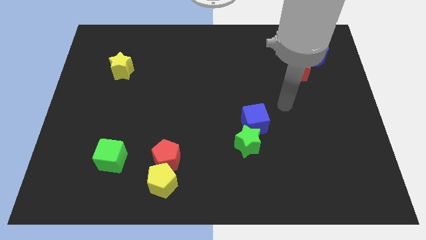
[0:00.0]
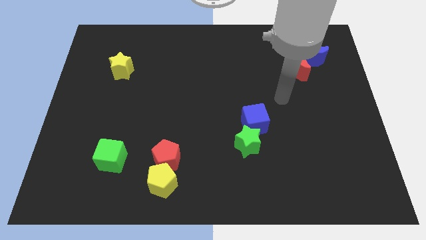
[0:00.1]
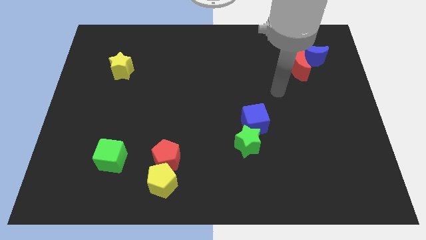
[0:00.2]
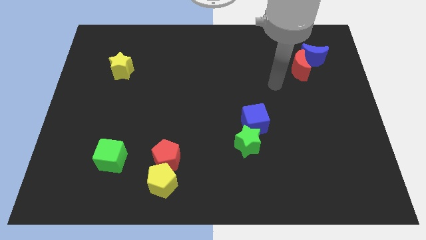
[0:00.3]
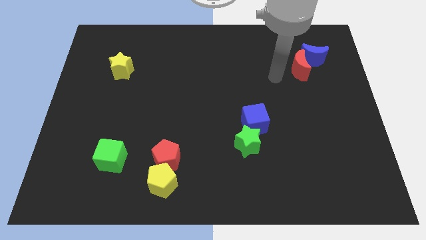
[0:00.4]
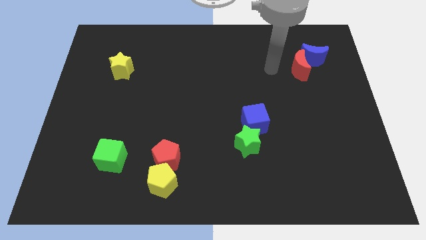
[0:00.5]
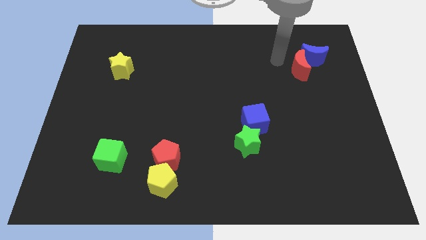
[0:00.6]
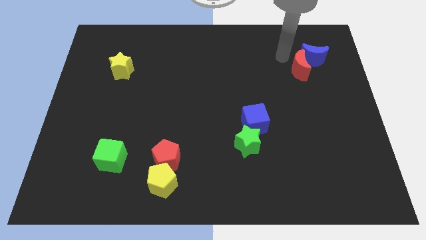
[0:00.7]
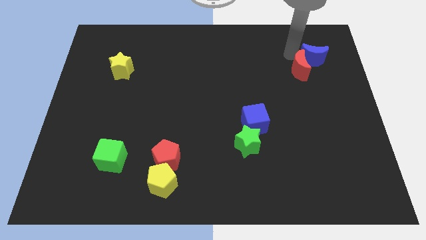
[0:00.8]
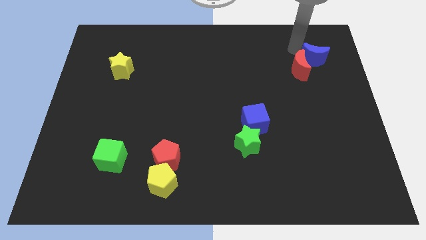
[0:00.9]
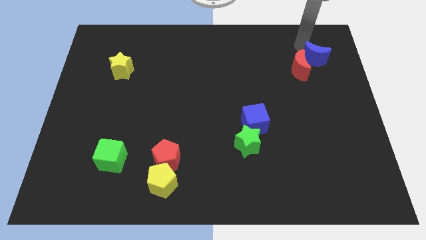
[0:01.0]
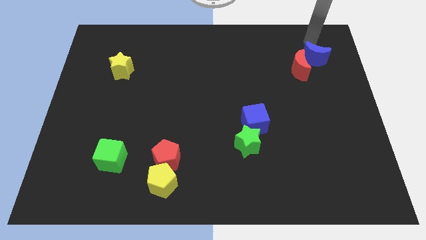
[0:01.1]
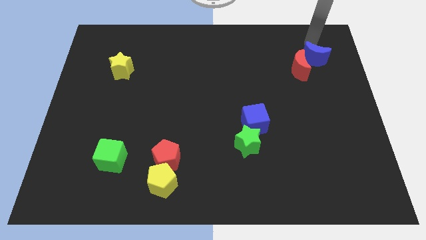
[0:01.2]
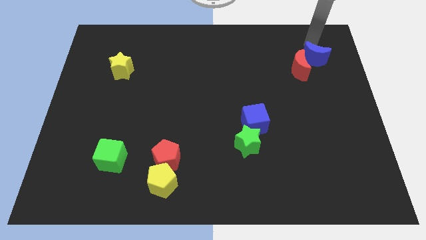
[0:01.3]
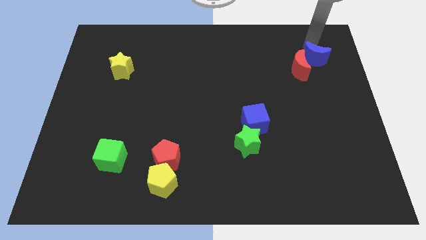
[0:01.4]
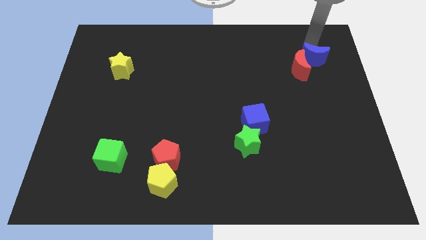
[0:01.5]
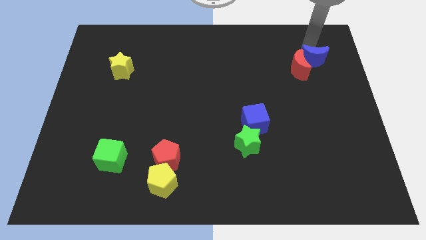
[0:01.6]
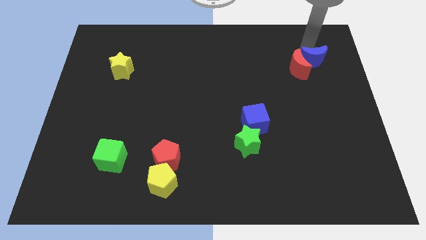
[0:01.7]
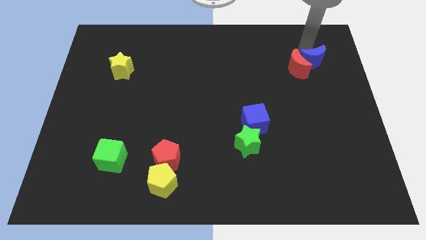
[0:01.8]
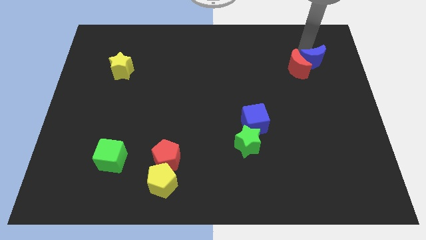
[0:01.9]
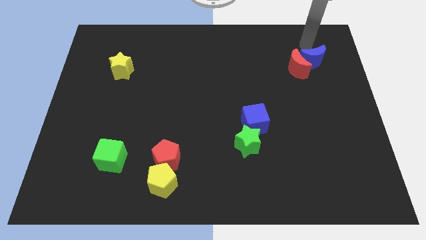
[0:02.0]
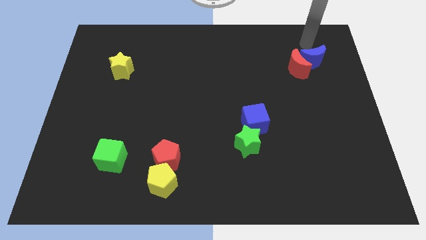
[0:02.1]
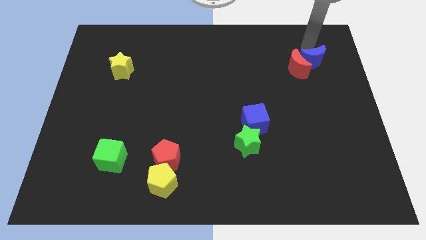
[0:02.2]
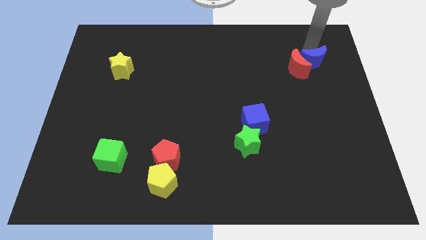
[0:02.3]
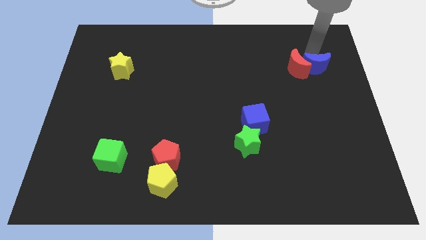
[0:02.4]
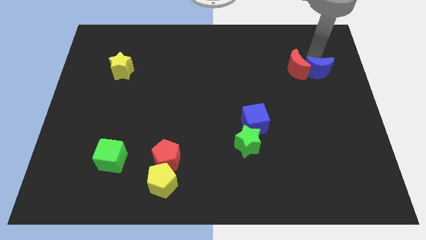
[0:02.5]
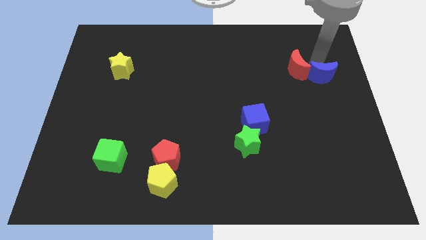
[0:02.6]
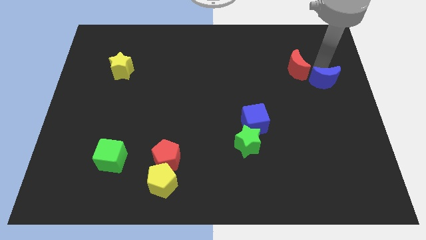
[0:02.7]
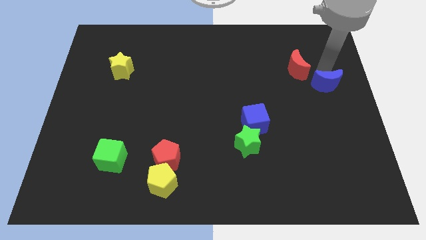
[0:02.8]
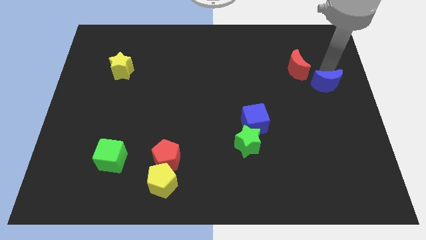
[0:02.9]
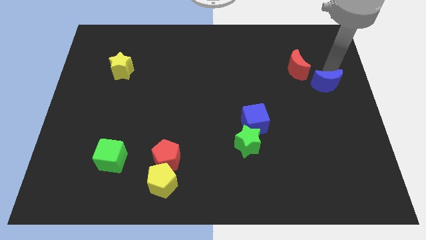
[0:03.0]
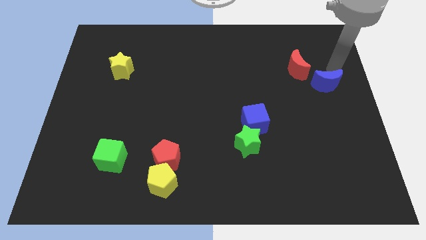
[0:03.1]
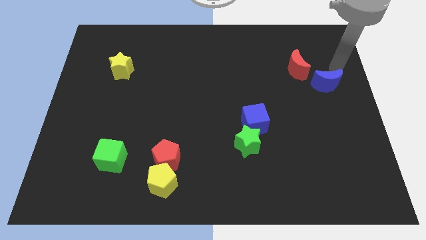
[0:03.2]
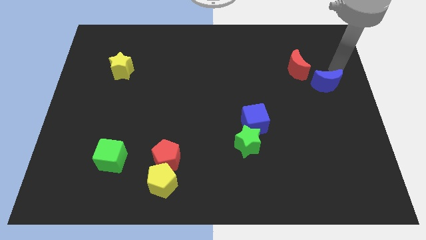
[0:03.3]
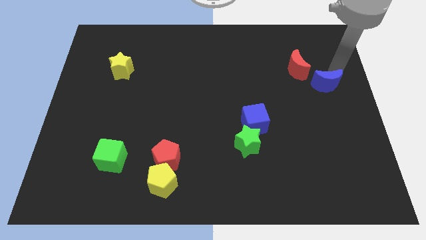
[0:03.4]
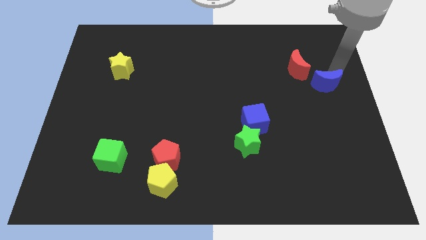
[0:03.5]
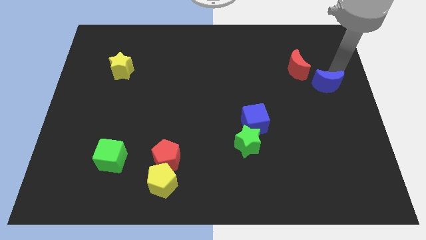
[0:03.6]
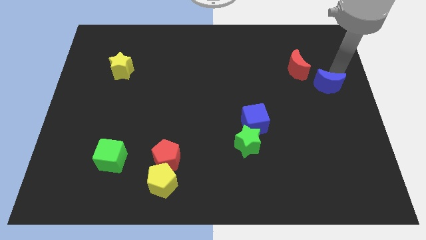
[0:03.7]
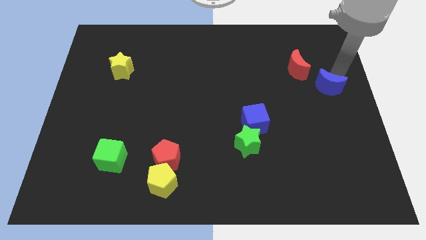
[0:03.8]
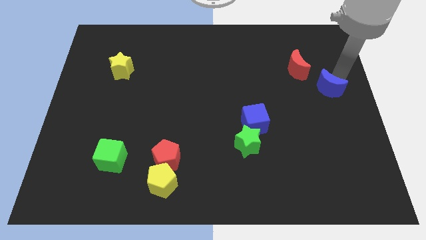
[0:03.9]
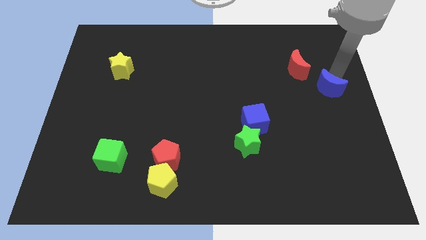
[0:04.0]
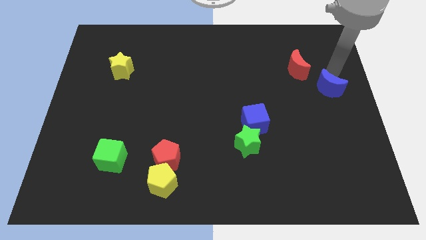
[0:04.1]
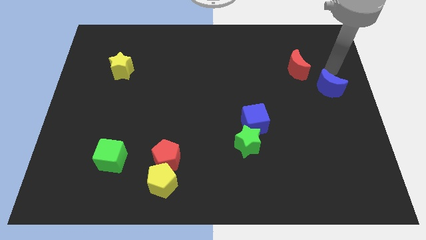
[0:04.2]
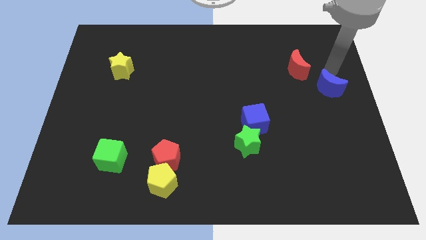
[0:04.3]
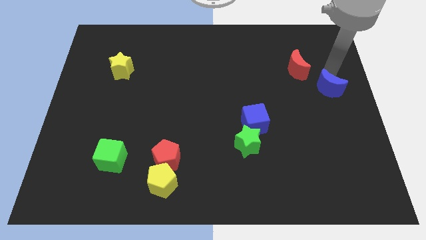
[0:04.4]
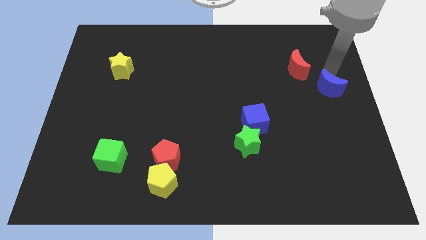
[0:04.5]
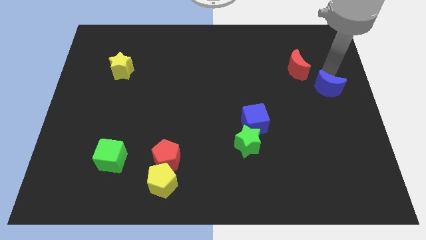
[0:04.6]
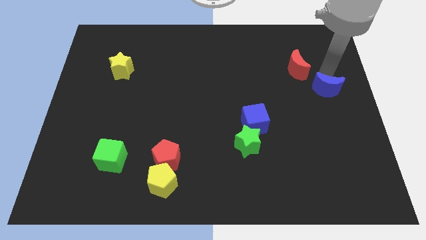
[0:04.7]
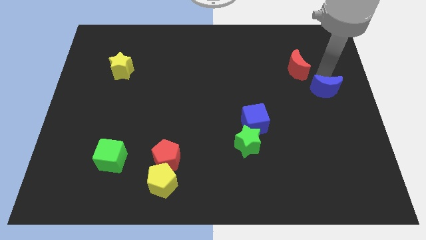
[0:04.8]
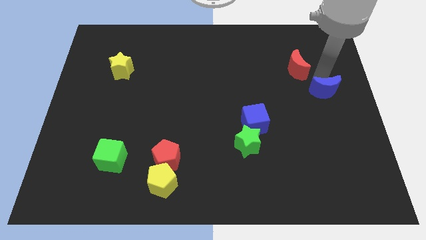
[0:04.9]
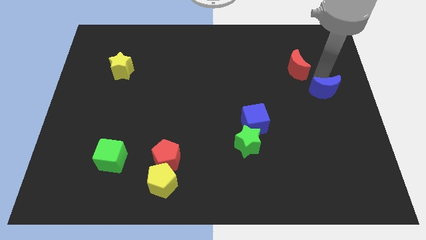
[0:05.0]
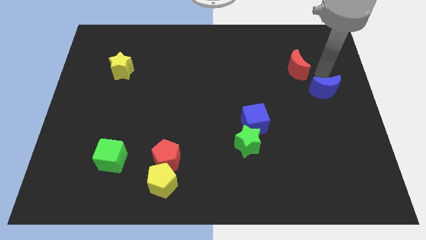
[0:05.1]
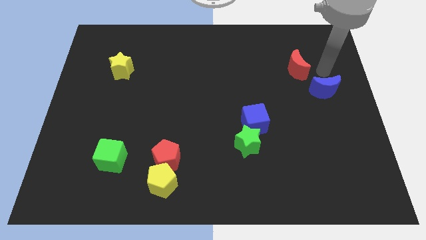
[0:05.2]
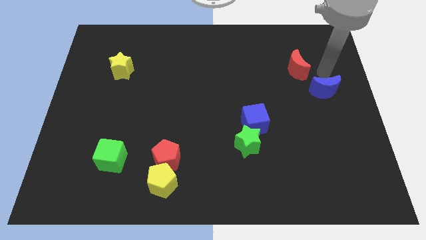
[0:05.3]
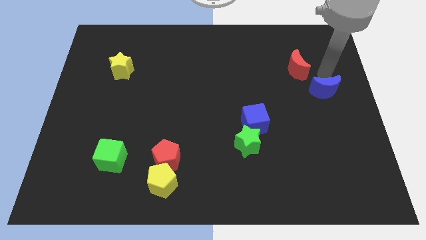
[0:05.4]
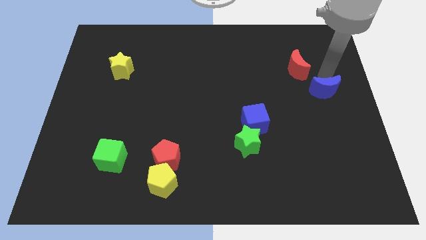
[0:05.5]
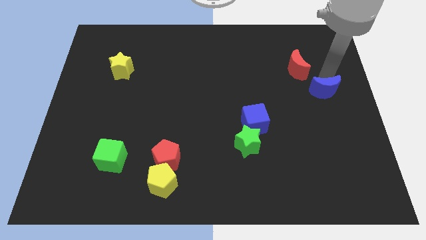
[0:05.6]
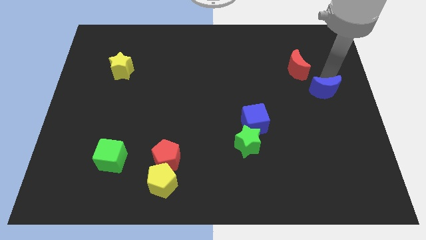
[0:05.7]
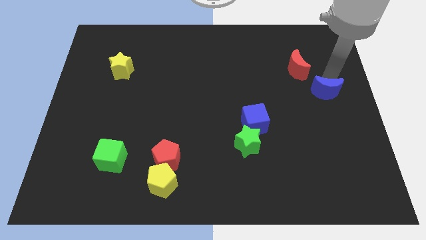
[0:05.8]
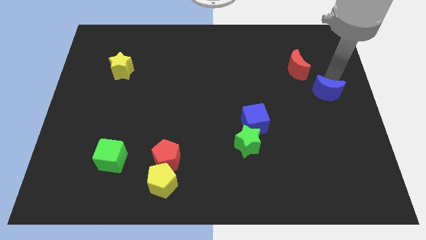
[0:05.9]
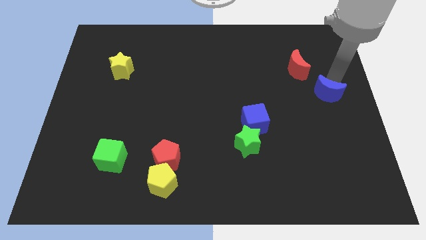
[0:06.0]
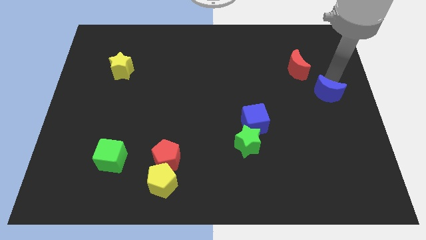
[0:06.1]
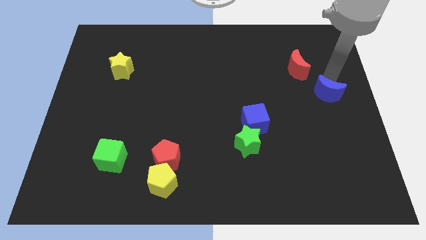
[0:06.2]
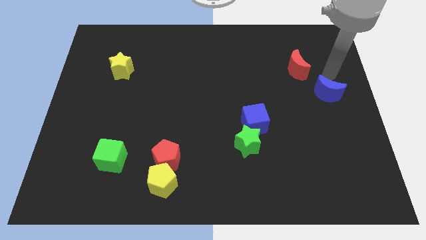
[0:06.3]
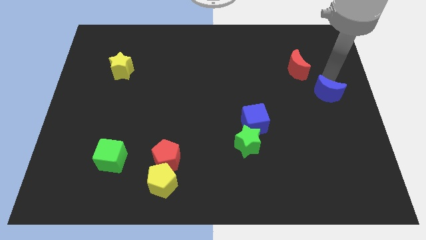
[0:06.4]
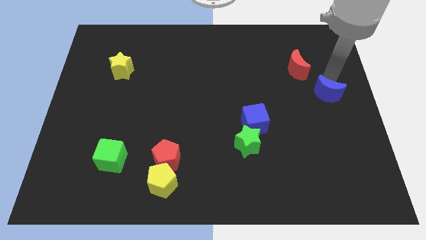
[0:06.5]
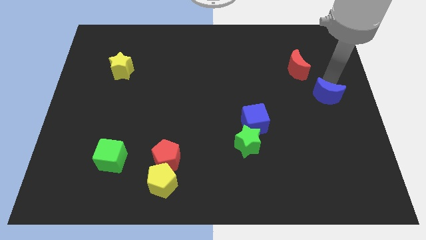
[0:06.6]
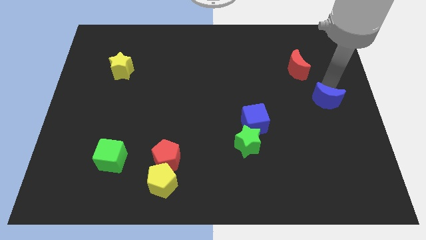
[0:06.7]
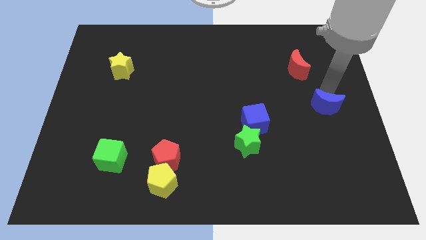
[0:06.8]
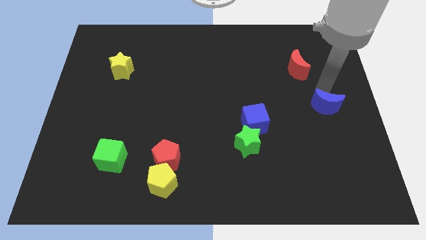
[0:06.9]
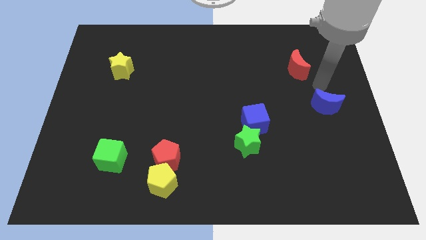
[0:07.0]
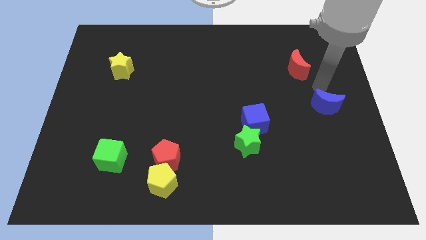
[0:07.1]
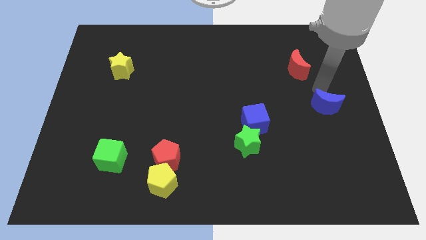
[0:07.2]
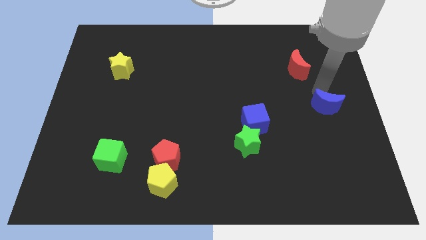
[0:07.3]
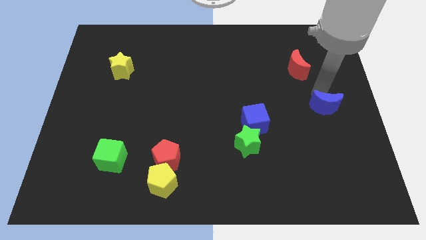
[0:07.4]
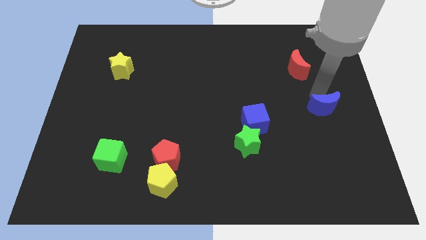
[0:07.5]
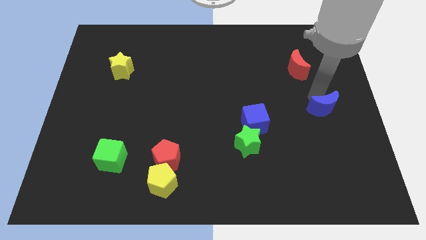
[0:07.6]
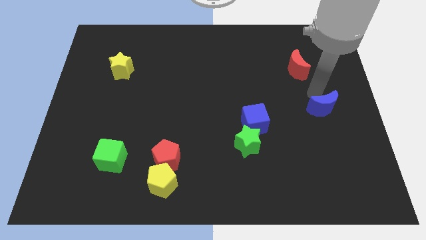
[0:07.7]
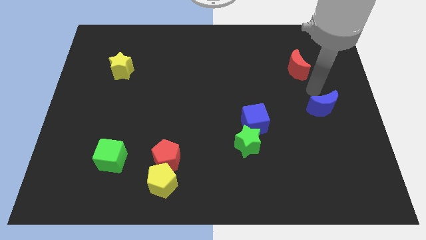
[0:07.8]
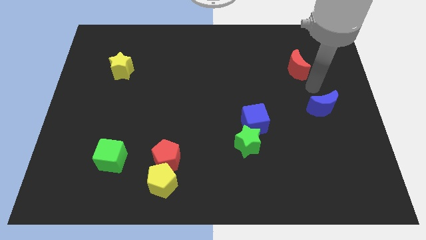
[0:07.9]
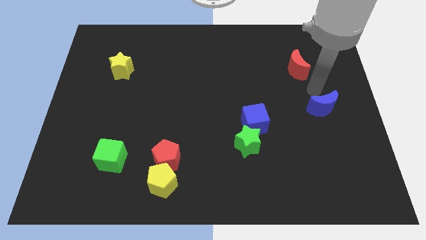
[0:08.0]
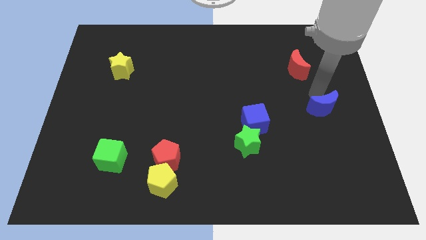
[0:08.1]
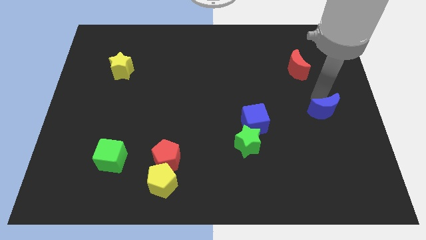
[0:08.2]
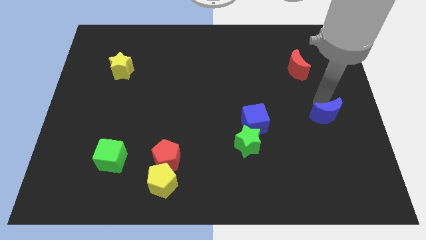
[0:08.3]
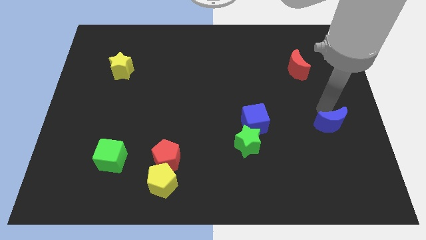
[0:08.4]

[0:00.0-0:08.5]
push the blue moon downwards

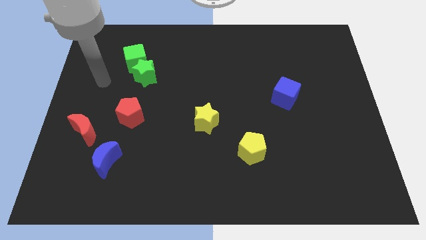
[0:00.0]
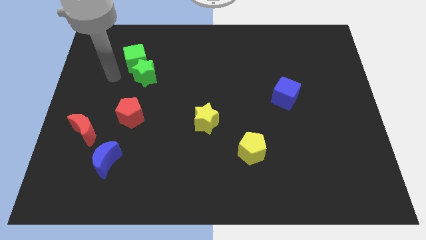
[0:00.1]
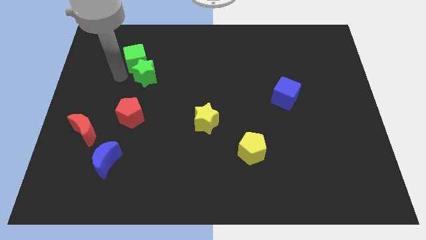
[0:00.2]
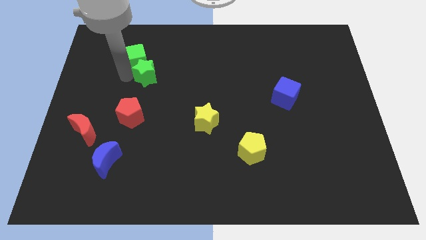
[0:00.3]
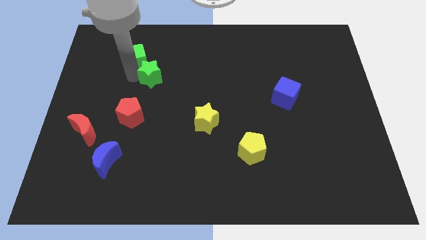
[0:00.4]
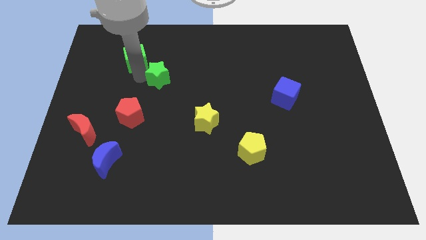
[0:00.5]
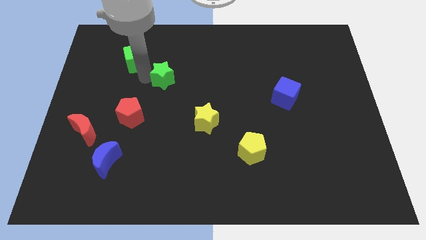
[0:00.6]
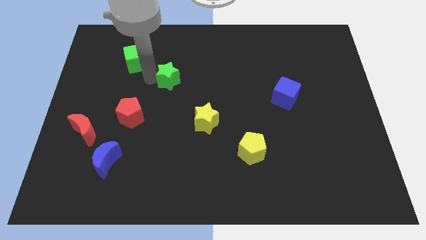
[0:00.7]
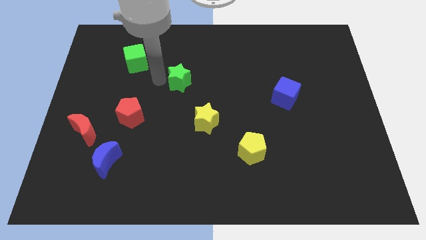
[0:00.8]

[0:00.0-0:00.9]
move the green star right a little
